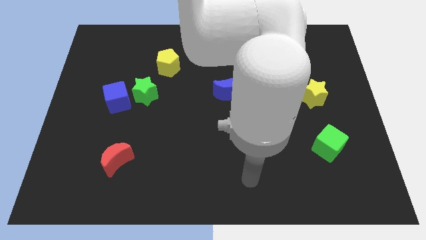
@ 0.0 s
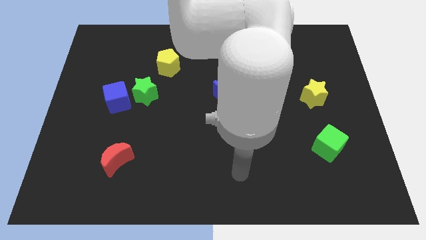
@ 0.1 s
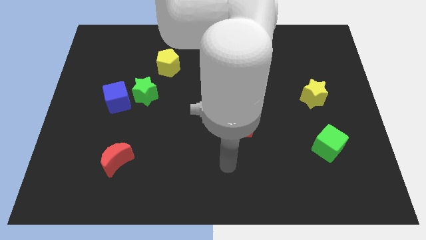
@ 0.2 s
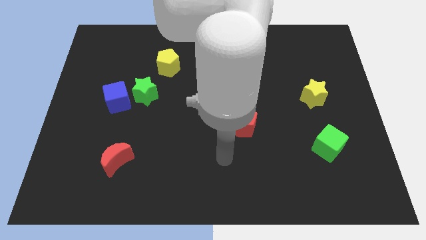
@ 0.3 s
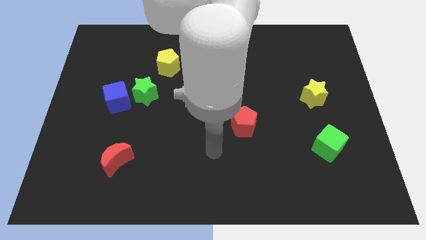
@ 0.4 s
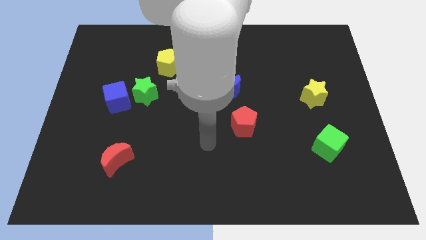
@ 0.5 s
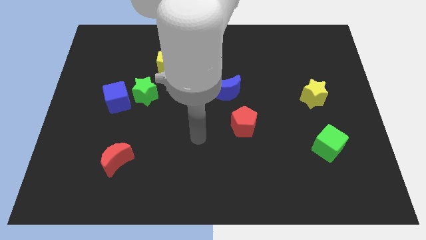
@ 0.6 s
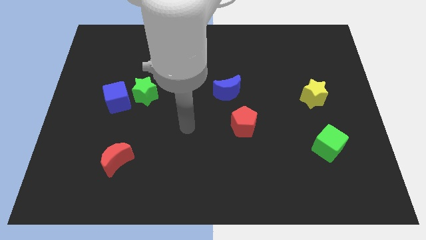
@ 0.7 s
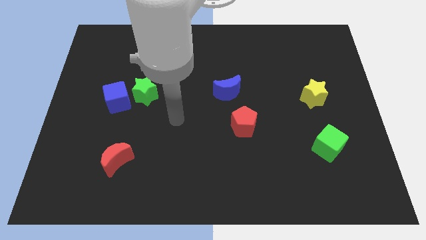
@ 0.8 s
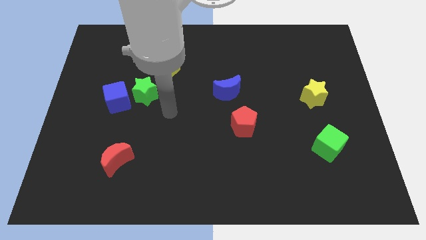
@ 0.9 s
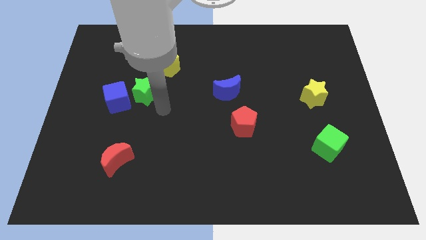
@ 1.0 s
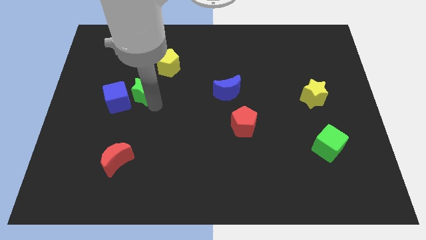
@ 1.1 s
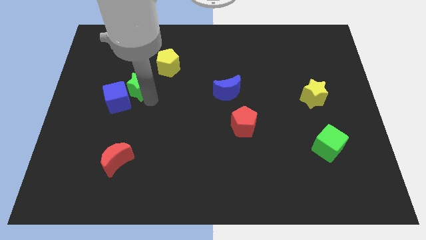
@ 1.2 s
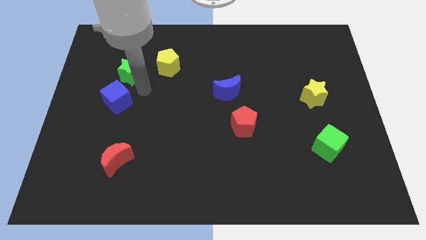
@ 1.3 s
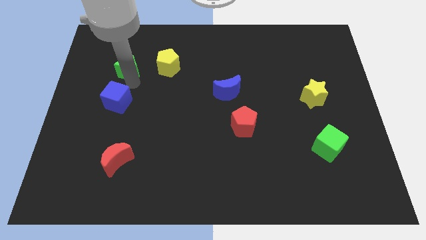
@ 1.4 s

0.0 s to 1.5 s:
move the blue cube away from the green star

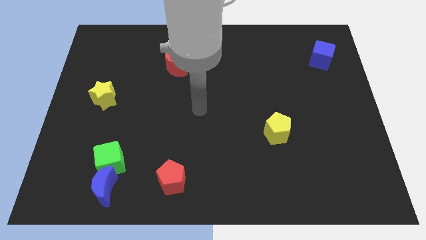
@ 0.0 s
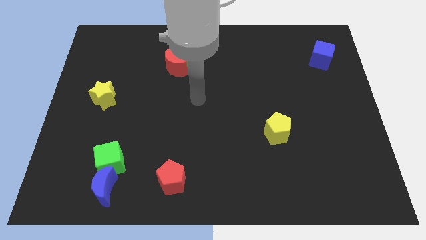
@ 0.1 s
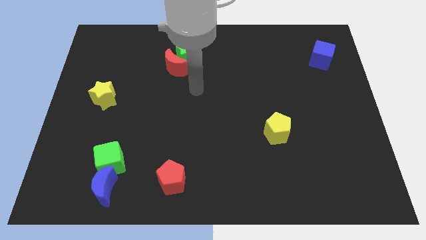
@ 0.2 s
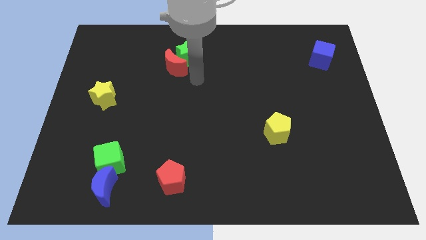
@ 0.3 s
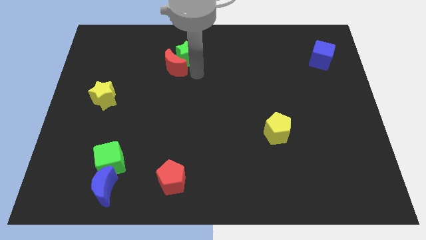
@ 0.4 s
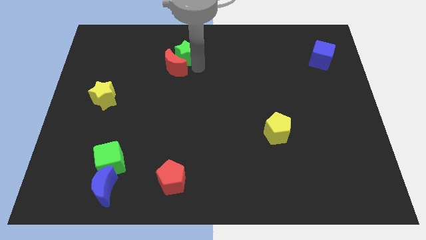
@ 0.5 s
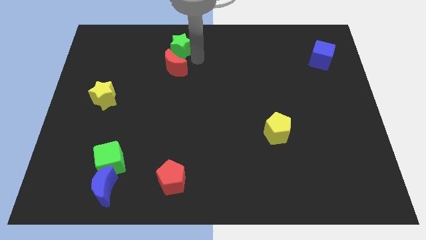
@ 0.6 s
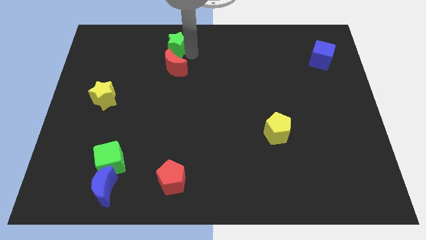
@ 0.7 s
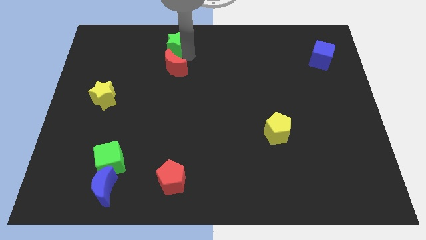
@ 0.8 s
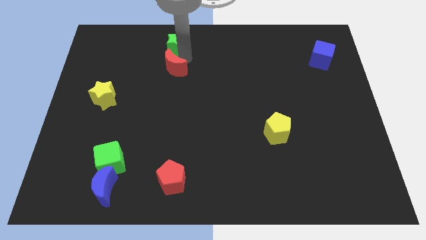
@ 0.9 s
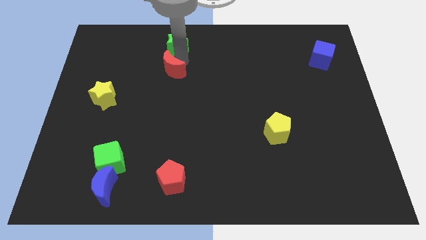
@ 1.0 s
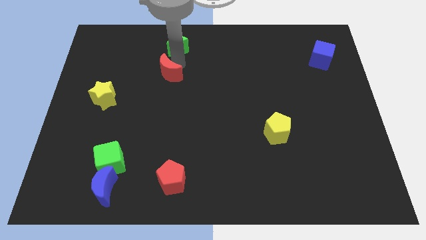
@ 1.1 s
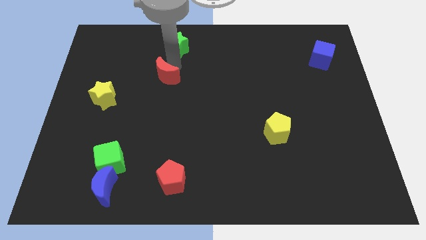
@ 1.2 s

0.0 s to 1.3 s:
move the red moon away from the green star

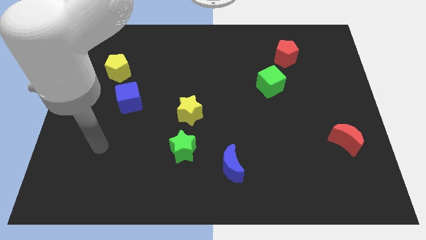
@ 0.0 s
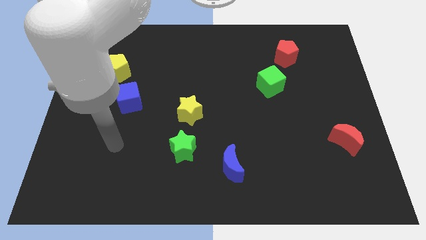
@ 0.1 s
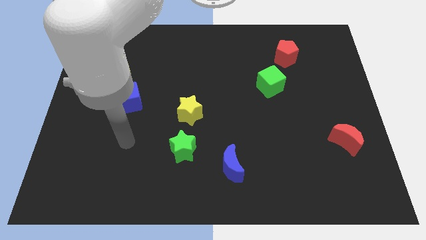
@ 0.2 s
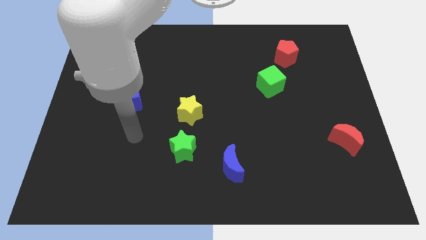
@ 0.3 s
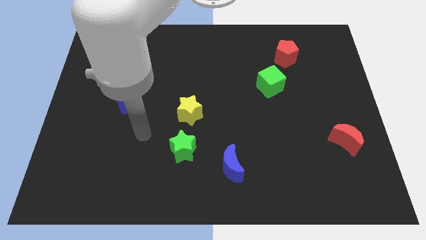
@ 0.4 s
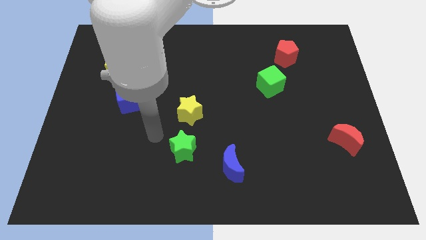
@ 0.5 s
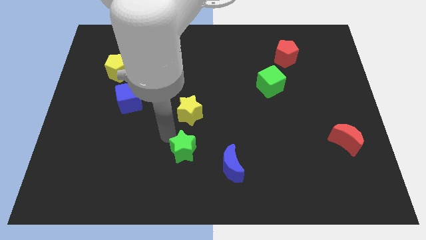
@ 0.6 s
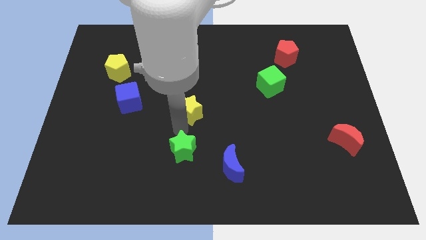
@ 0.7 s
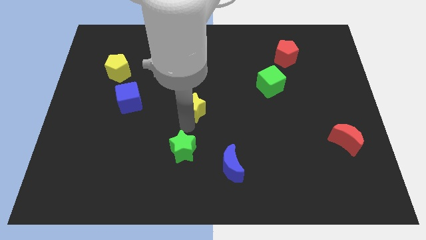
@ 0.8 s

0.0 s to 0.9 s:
separate the green star from the yellow star

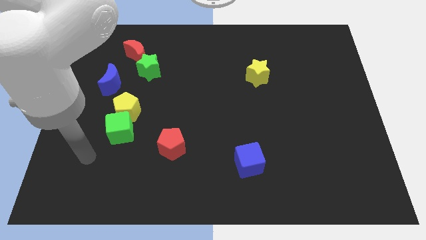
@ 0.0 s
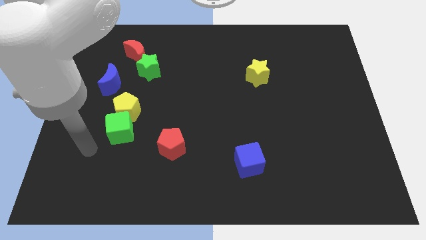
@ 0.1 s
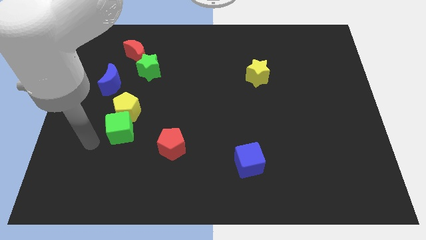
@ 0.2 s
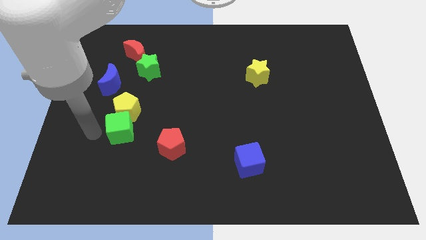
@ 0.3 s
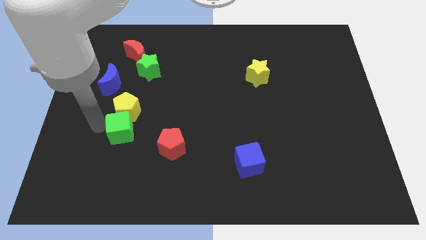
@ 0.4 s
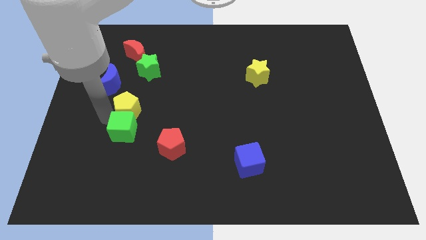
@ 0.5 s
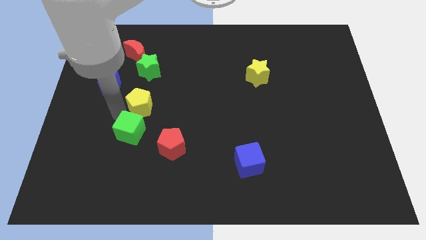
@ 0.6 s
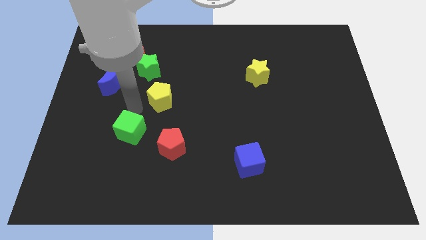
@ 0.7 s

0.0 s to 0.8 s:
separate the green cube from the yellow pentagon

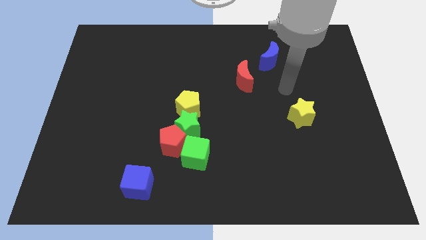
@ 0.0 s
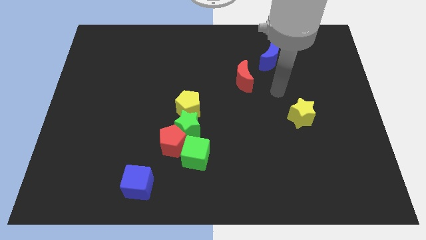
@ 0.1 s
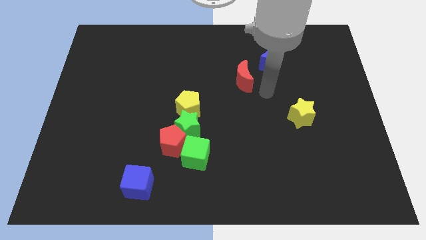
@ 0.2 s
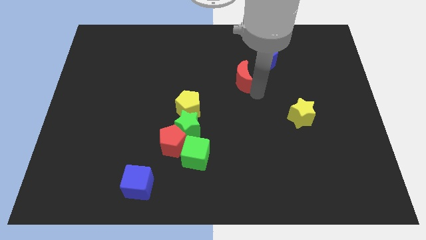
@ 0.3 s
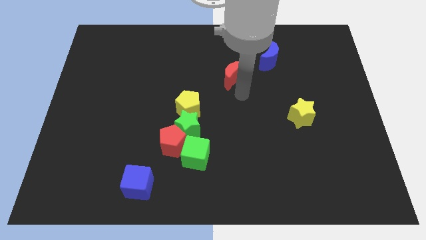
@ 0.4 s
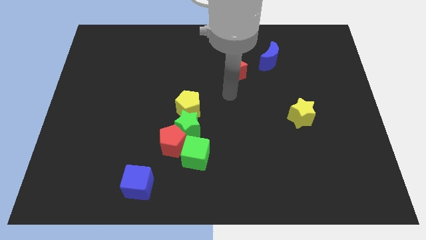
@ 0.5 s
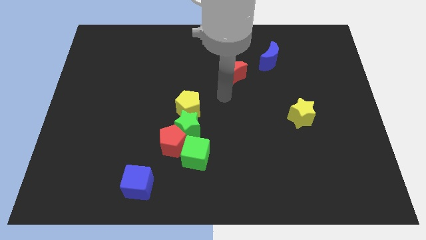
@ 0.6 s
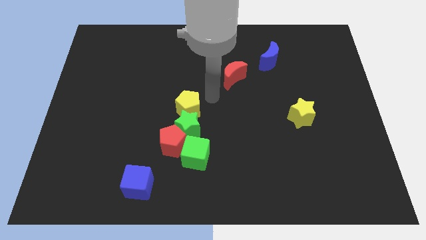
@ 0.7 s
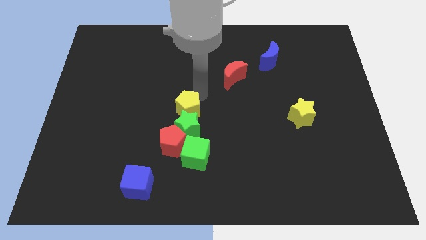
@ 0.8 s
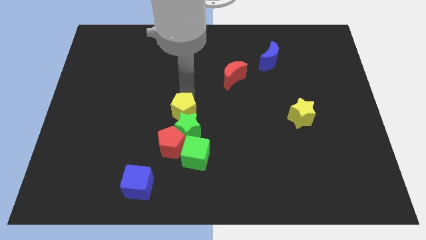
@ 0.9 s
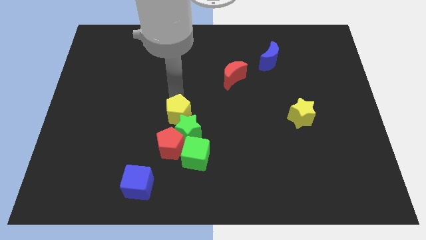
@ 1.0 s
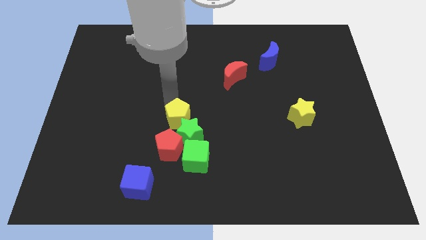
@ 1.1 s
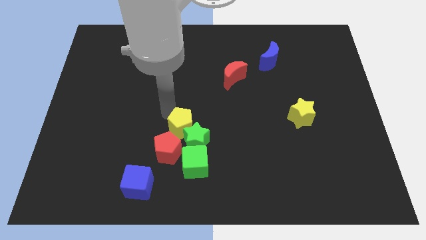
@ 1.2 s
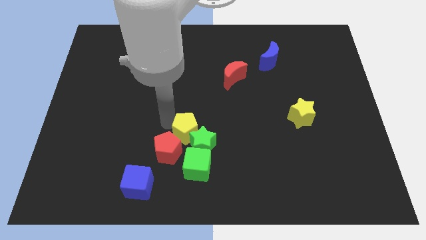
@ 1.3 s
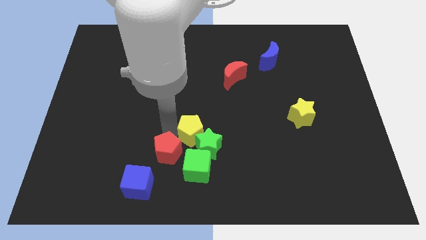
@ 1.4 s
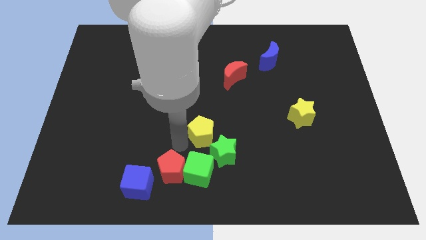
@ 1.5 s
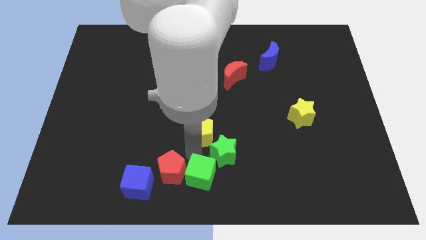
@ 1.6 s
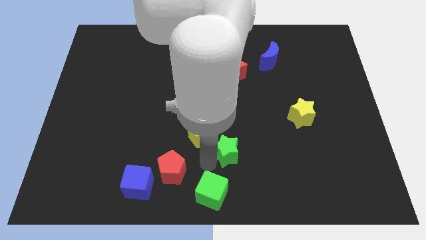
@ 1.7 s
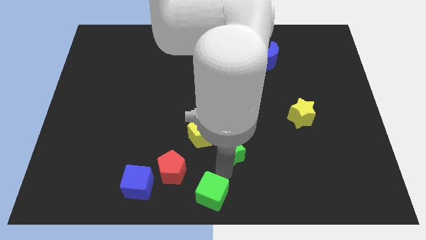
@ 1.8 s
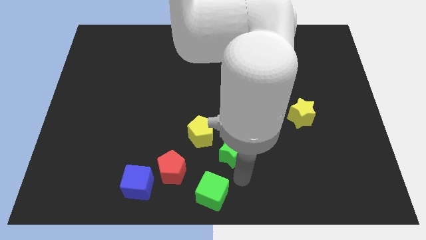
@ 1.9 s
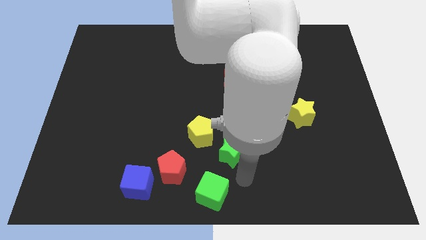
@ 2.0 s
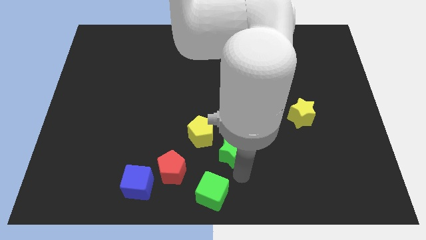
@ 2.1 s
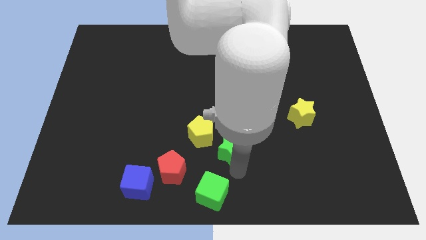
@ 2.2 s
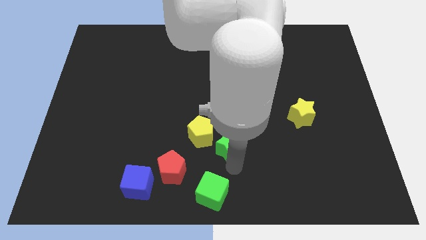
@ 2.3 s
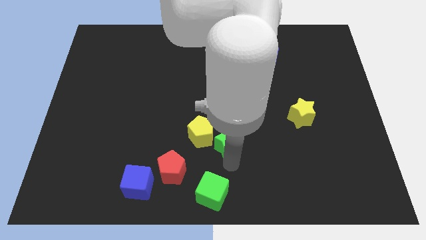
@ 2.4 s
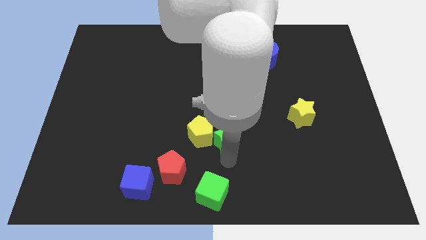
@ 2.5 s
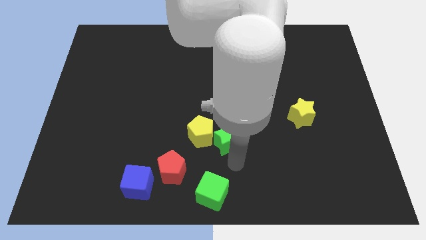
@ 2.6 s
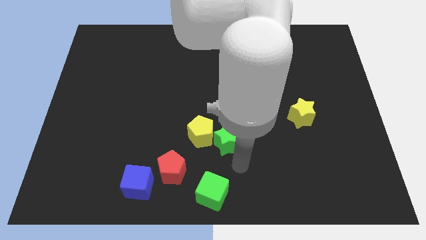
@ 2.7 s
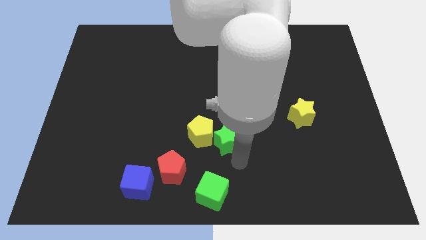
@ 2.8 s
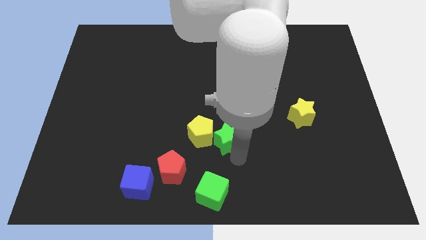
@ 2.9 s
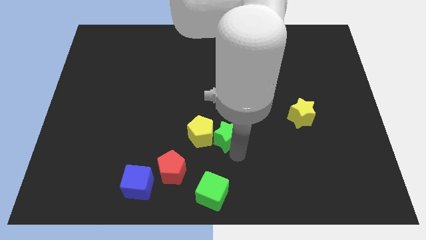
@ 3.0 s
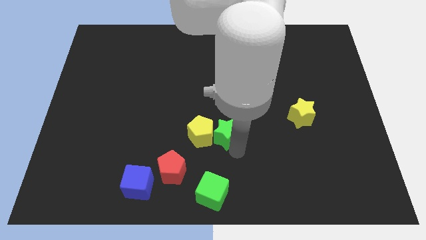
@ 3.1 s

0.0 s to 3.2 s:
separate the green star from the yellow pentagon, red pentagon, and green cube

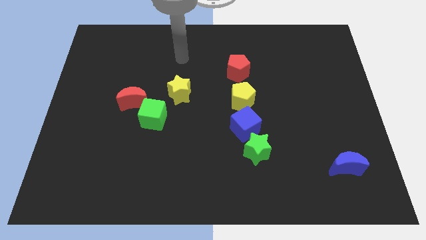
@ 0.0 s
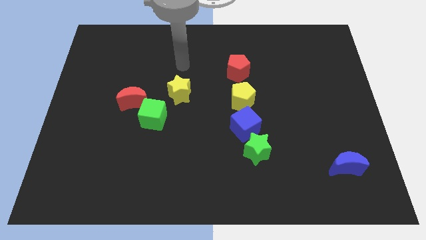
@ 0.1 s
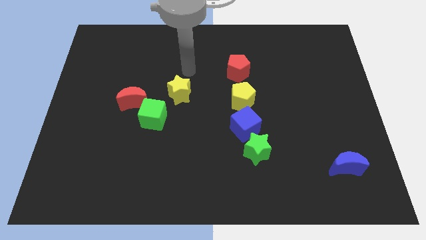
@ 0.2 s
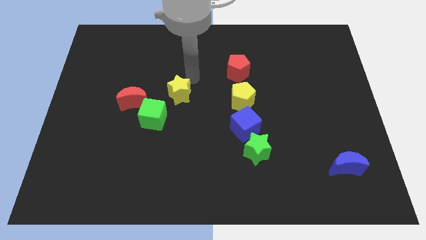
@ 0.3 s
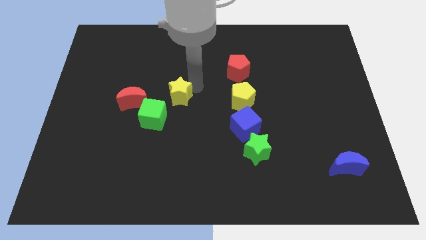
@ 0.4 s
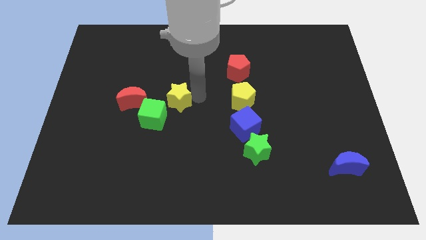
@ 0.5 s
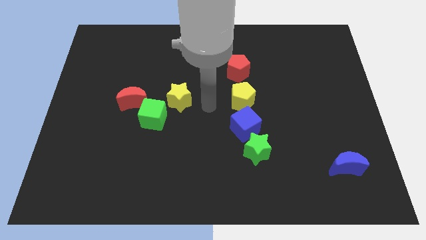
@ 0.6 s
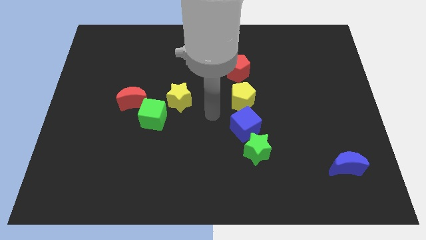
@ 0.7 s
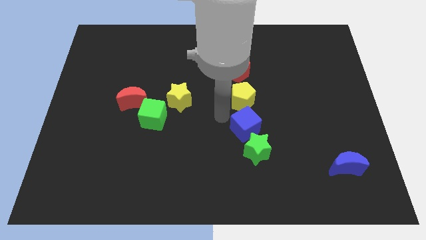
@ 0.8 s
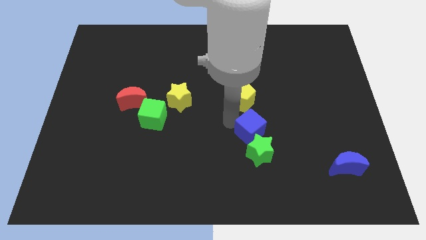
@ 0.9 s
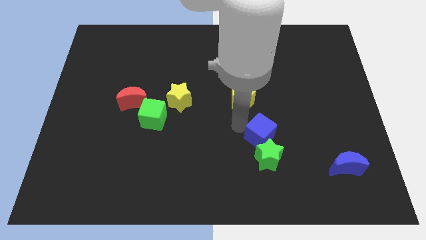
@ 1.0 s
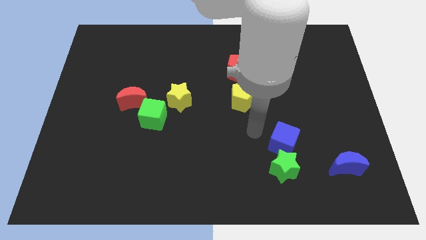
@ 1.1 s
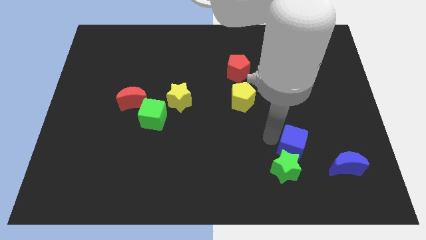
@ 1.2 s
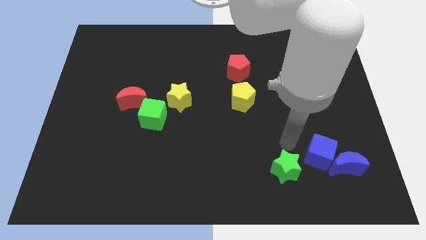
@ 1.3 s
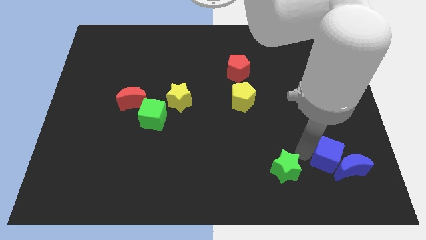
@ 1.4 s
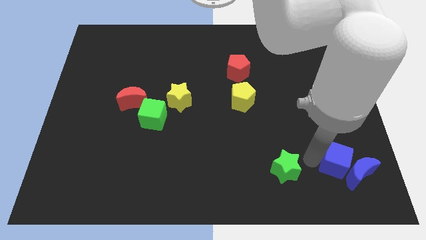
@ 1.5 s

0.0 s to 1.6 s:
separate the green star from the blue cube

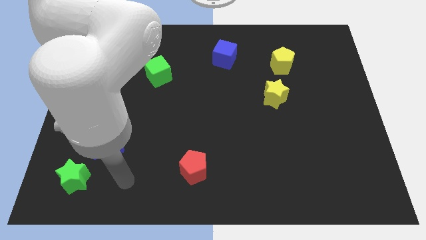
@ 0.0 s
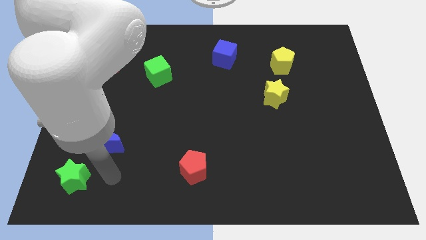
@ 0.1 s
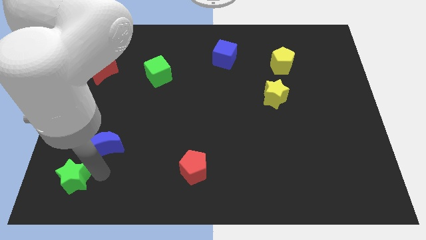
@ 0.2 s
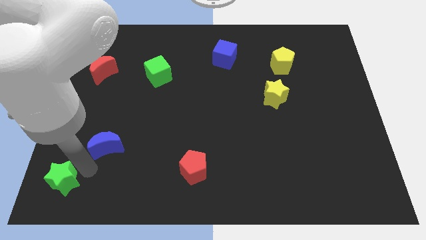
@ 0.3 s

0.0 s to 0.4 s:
move the blue moon away from the green star
